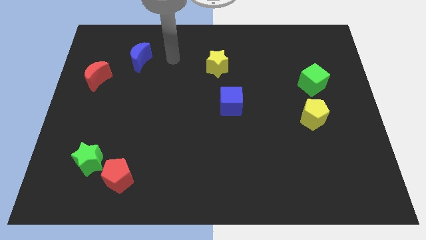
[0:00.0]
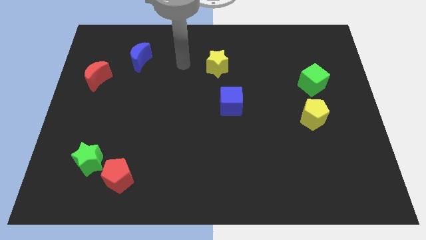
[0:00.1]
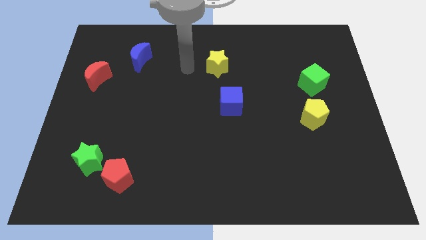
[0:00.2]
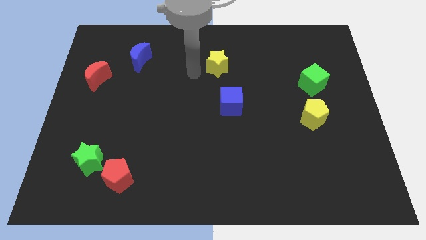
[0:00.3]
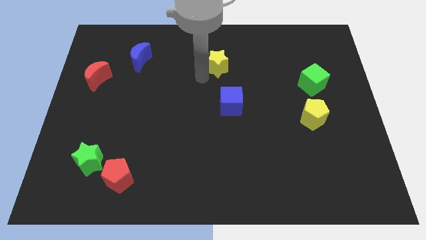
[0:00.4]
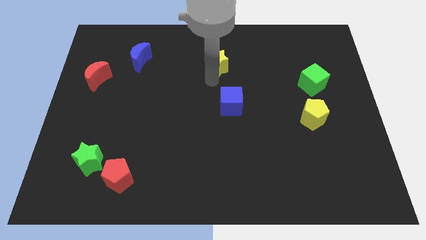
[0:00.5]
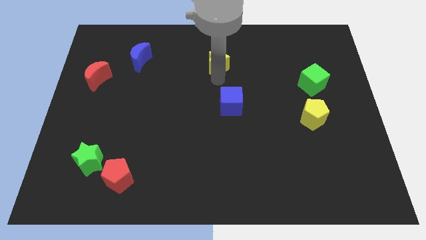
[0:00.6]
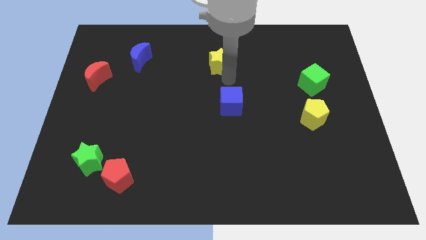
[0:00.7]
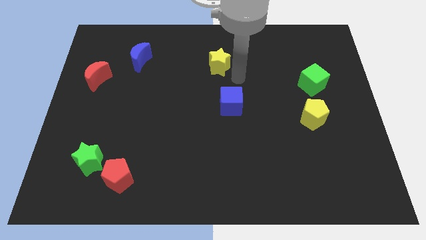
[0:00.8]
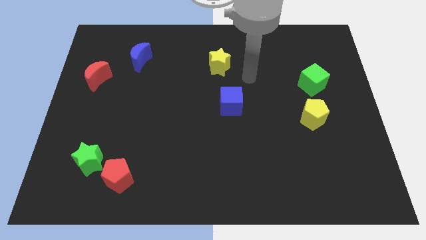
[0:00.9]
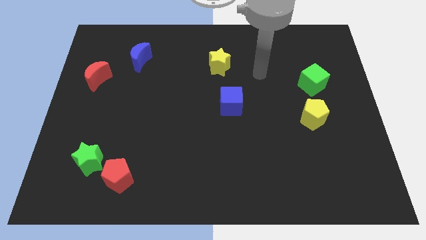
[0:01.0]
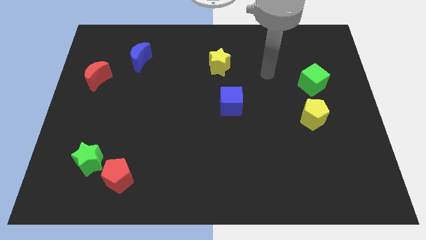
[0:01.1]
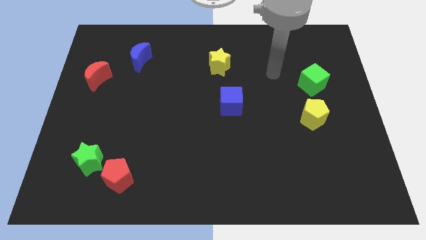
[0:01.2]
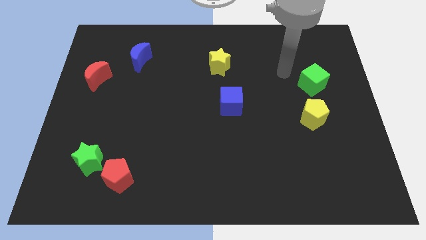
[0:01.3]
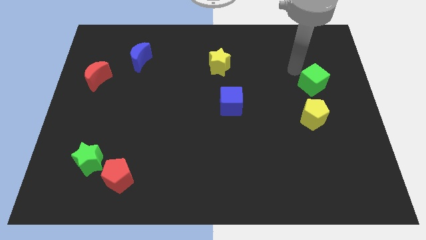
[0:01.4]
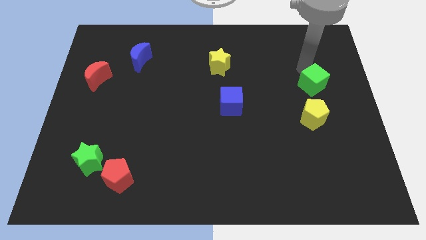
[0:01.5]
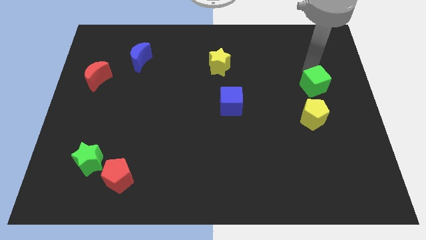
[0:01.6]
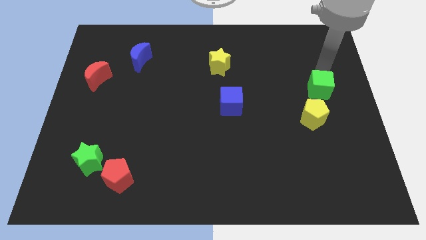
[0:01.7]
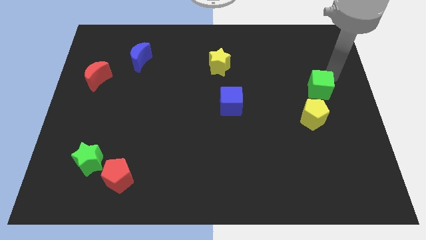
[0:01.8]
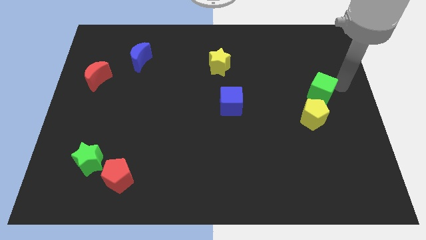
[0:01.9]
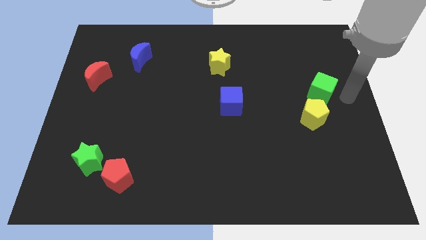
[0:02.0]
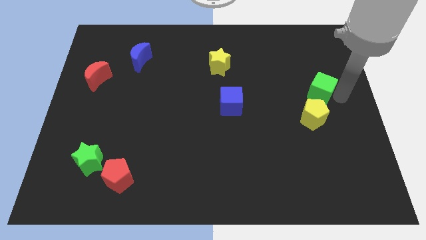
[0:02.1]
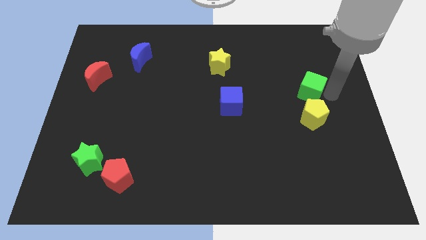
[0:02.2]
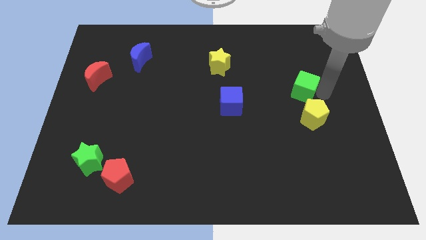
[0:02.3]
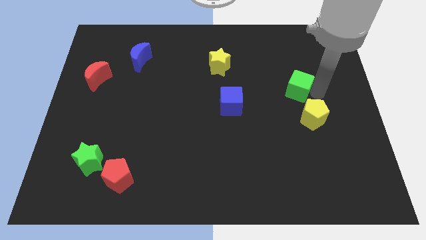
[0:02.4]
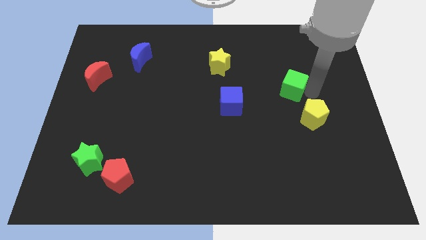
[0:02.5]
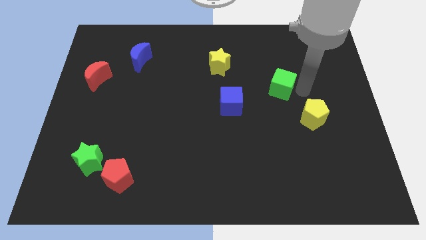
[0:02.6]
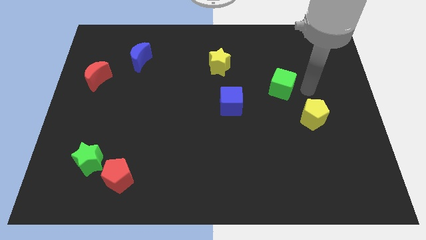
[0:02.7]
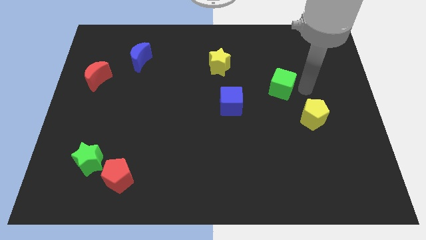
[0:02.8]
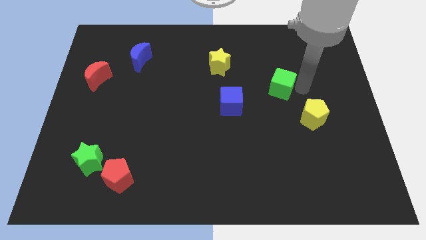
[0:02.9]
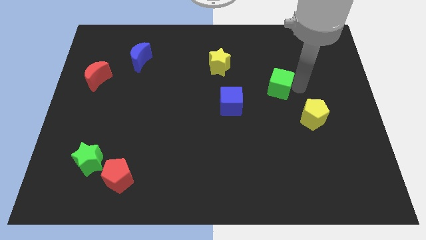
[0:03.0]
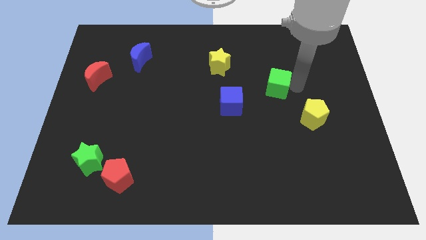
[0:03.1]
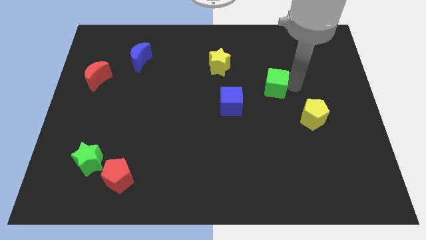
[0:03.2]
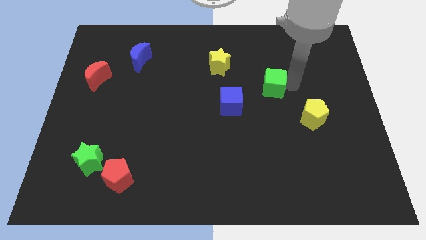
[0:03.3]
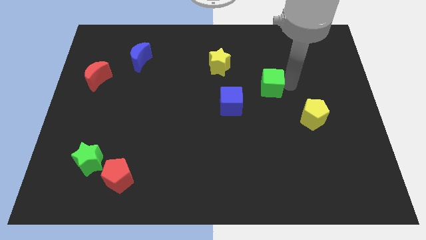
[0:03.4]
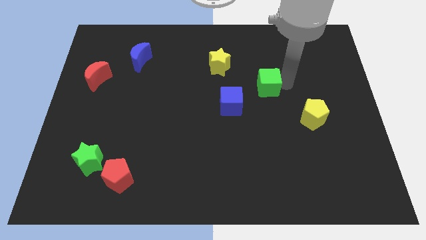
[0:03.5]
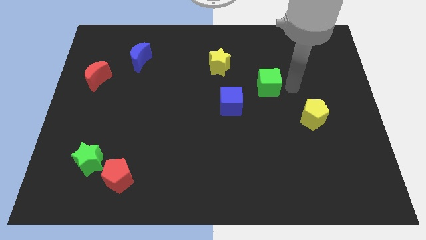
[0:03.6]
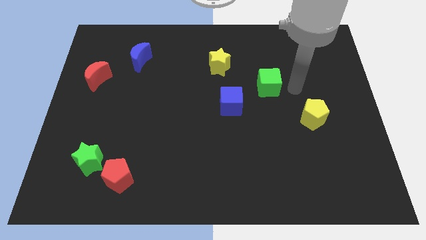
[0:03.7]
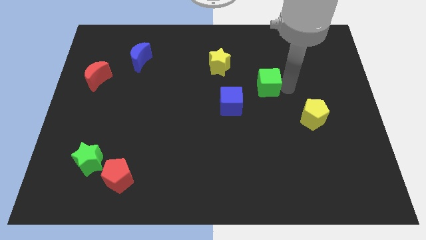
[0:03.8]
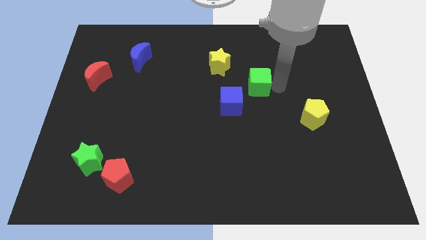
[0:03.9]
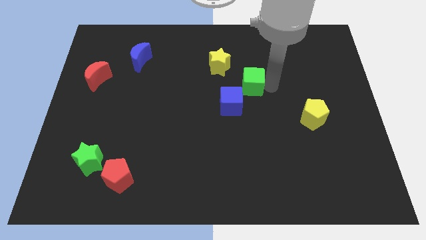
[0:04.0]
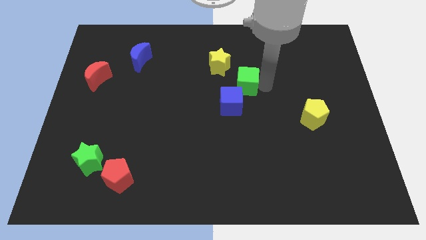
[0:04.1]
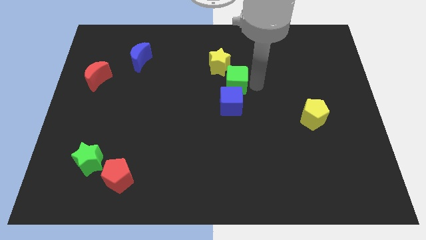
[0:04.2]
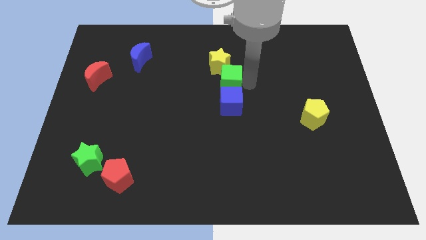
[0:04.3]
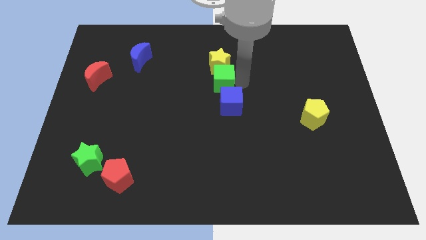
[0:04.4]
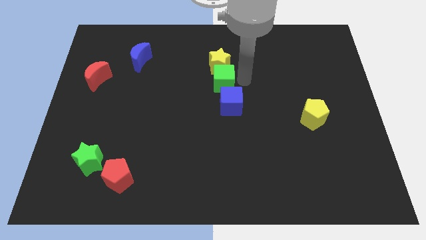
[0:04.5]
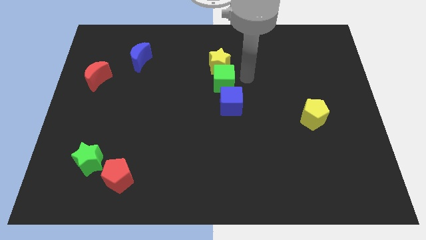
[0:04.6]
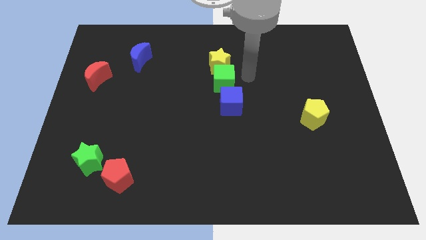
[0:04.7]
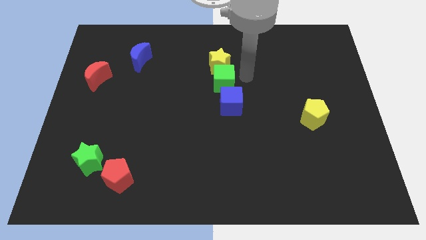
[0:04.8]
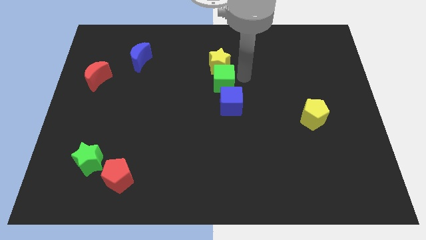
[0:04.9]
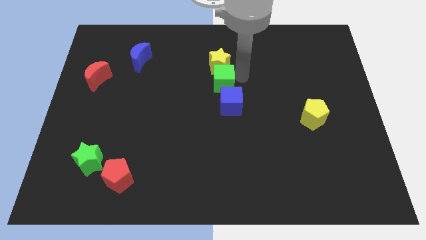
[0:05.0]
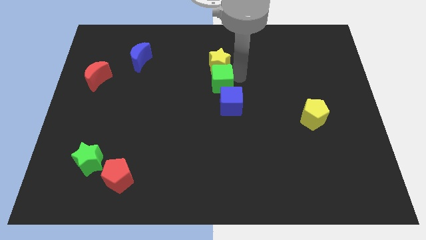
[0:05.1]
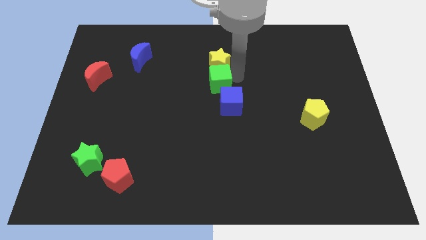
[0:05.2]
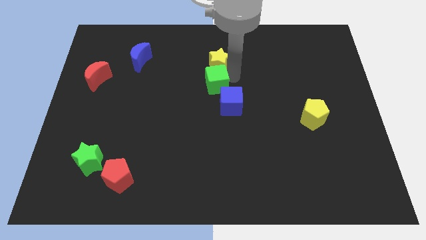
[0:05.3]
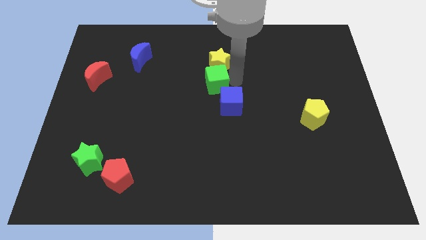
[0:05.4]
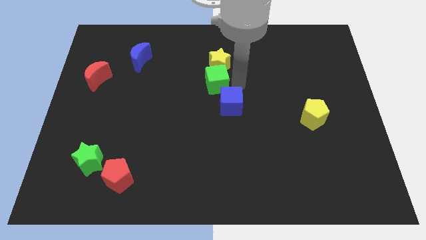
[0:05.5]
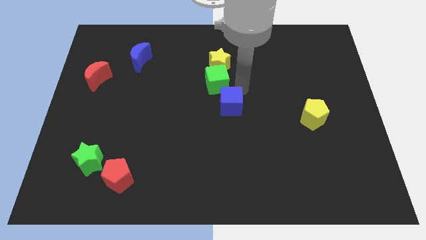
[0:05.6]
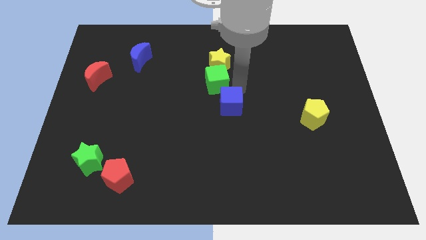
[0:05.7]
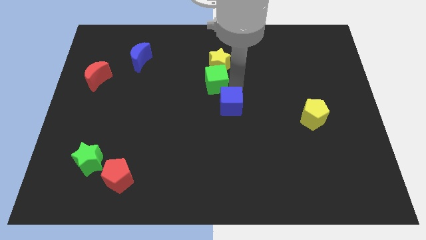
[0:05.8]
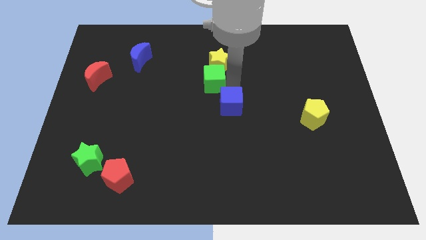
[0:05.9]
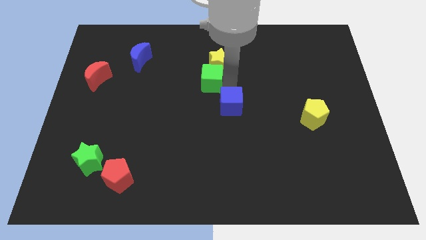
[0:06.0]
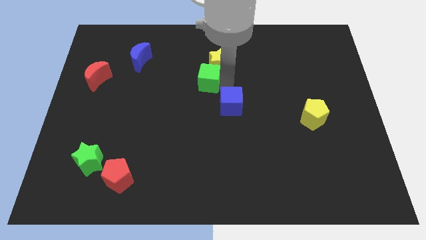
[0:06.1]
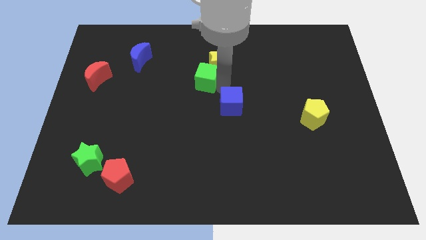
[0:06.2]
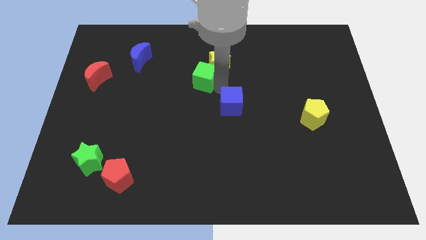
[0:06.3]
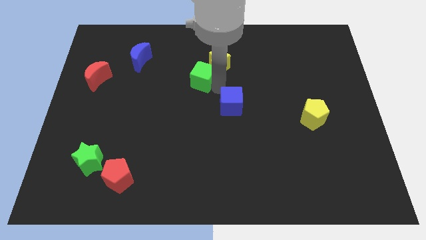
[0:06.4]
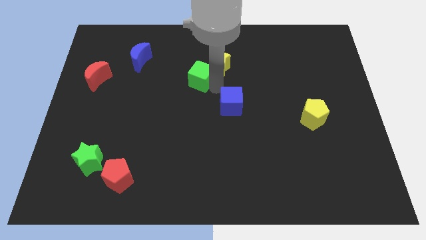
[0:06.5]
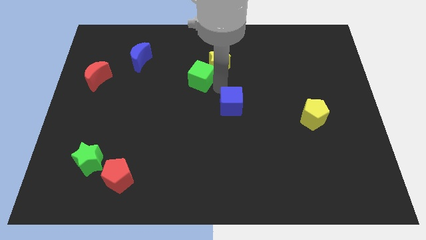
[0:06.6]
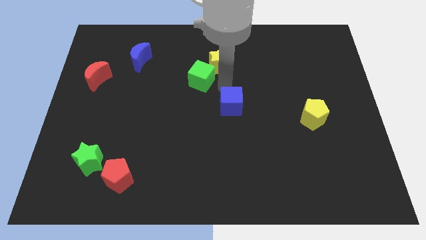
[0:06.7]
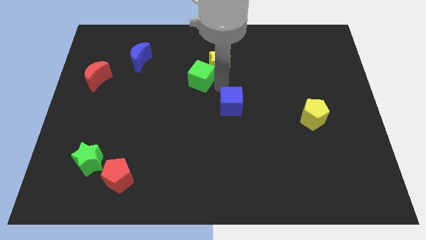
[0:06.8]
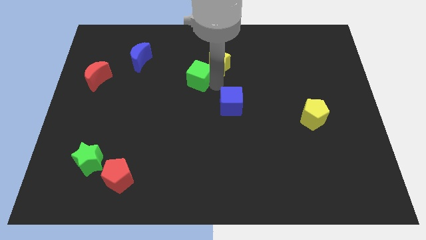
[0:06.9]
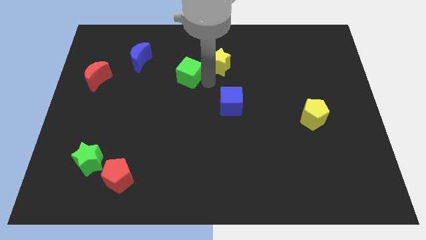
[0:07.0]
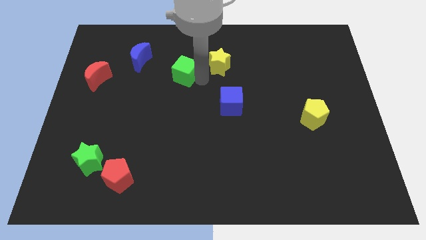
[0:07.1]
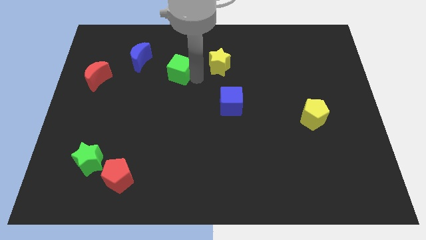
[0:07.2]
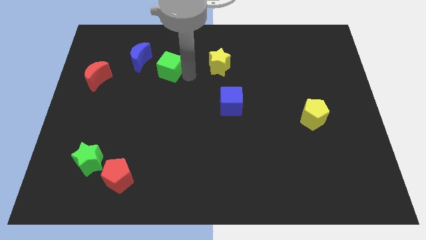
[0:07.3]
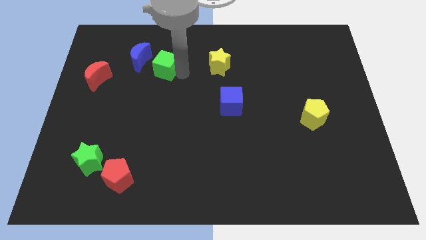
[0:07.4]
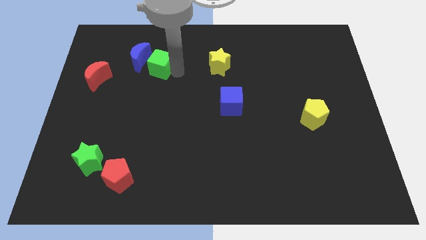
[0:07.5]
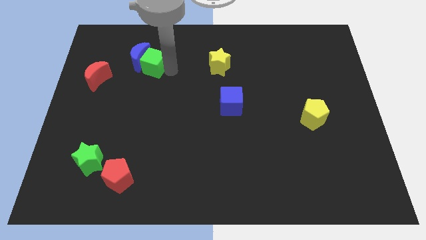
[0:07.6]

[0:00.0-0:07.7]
put the green cube towards the blue moon
